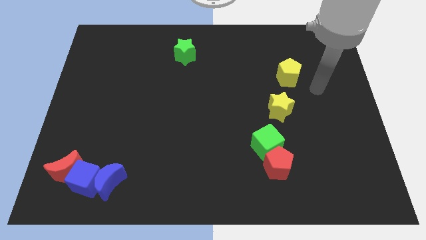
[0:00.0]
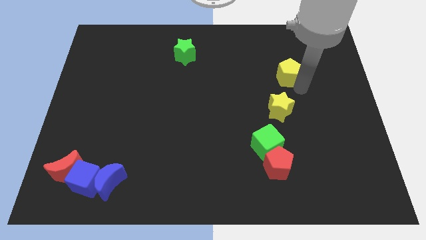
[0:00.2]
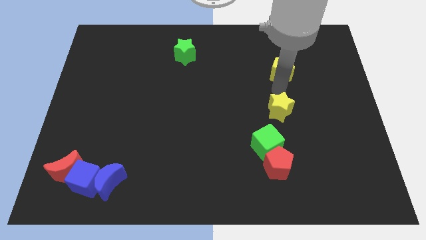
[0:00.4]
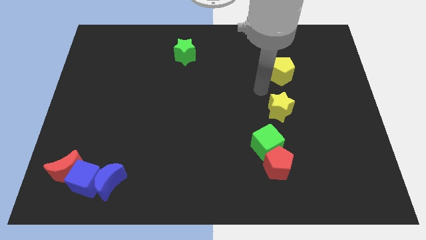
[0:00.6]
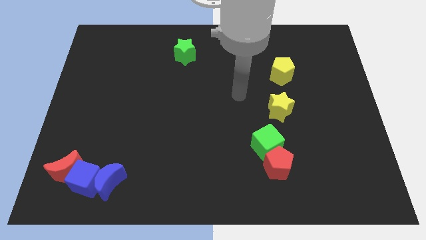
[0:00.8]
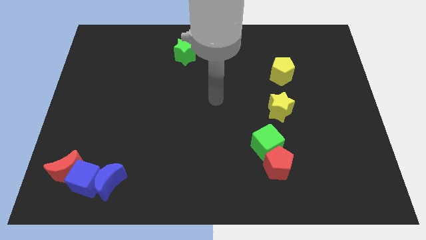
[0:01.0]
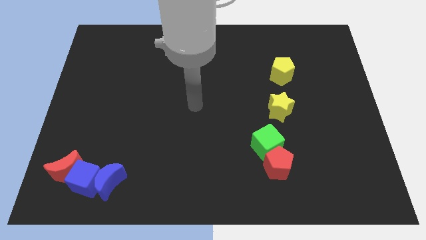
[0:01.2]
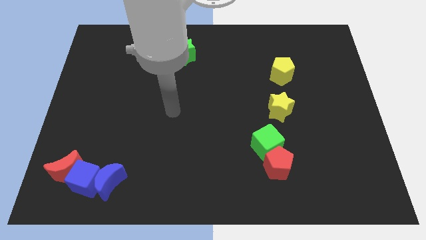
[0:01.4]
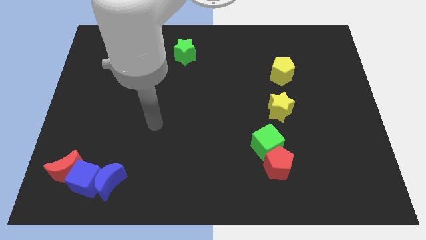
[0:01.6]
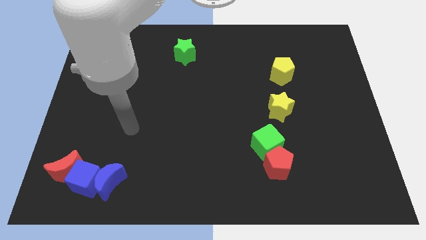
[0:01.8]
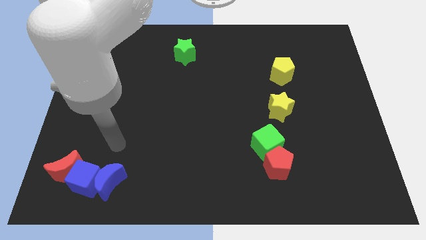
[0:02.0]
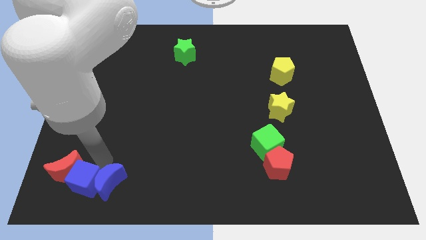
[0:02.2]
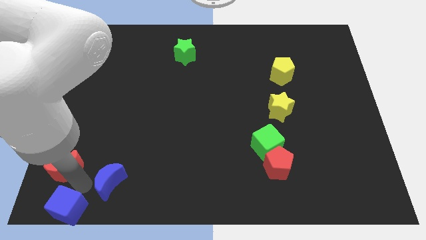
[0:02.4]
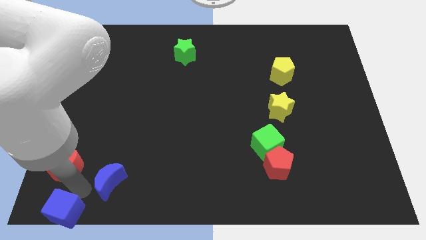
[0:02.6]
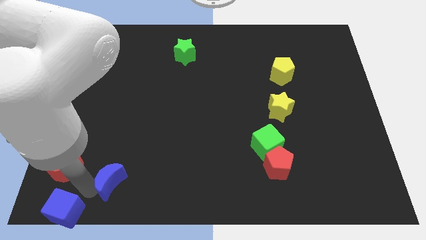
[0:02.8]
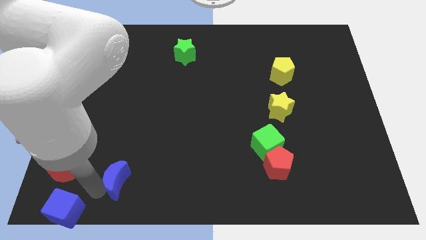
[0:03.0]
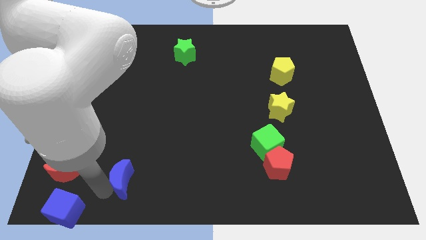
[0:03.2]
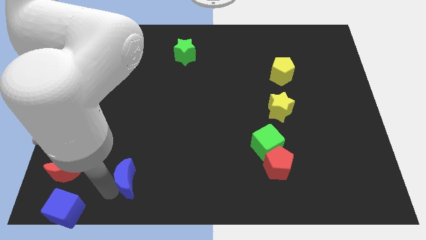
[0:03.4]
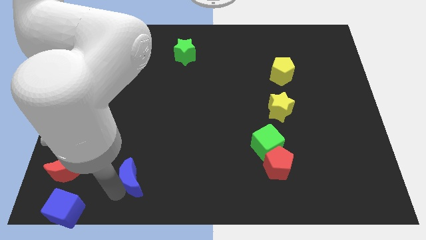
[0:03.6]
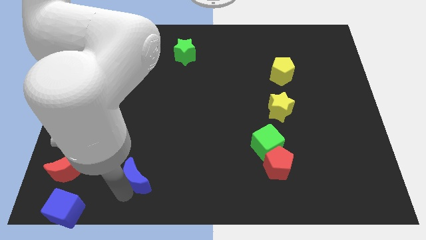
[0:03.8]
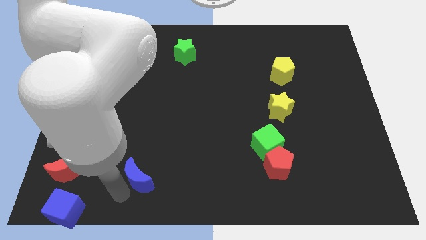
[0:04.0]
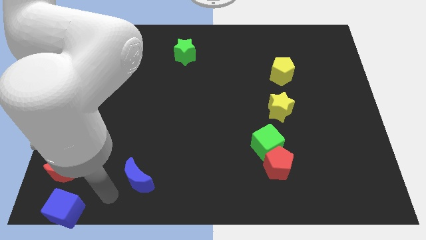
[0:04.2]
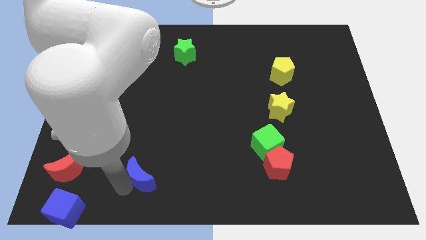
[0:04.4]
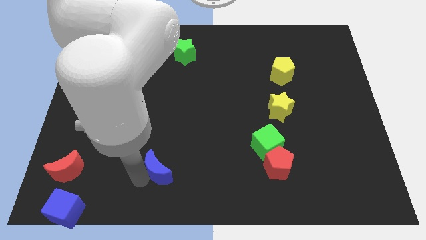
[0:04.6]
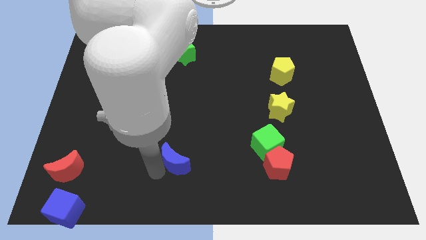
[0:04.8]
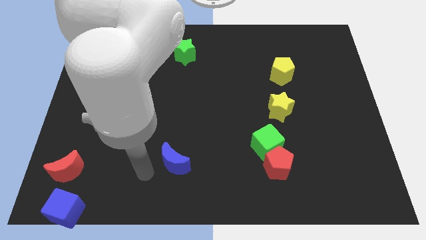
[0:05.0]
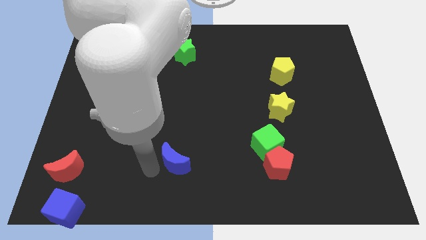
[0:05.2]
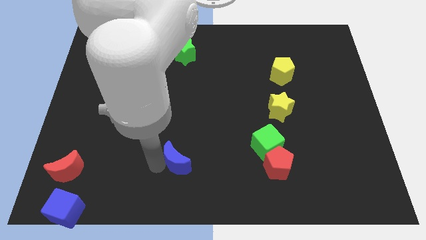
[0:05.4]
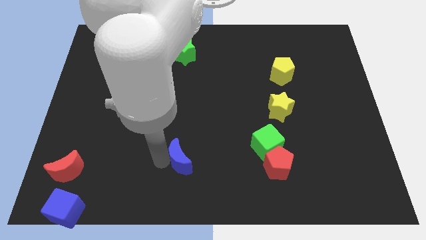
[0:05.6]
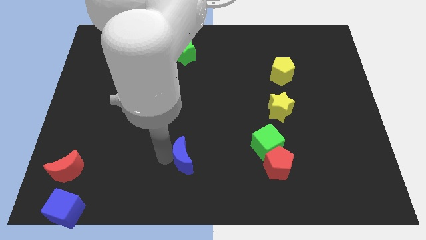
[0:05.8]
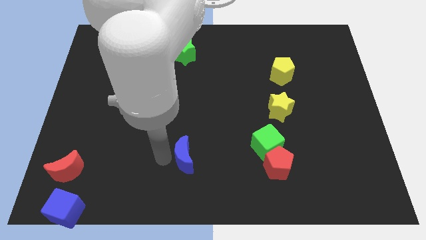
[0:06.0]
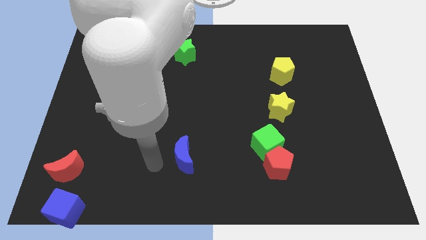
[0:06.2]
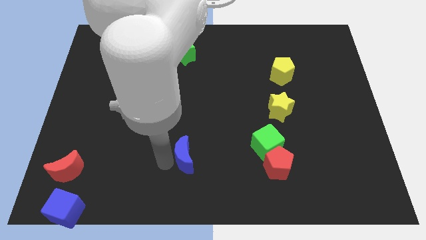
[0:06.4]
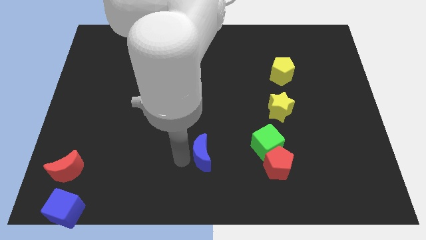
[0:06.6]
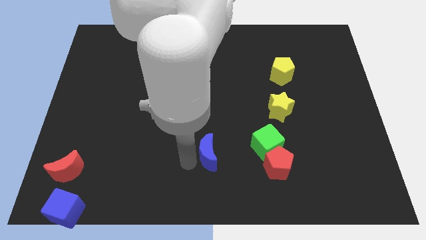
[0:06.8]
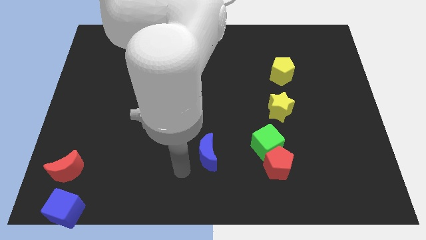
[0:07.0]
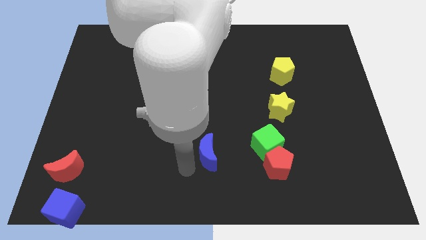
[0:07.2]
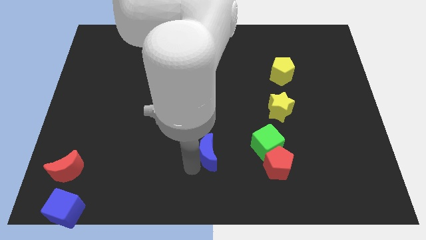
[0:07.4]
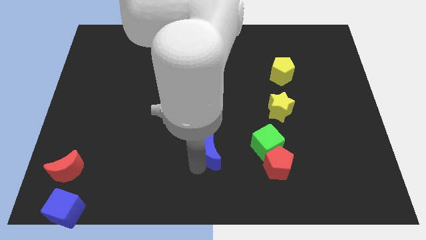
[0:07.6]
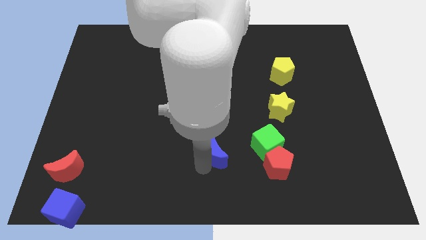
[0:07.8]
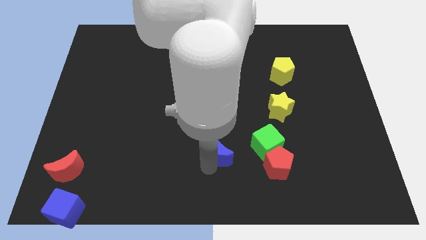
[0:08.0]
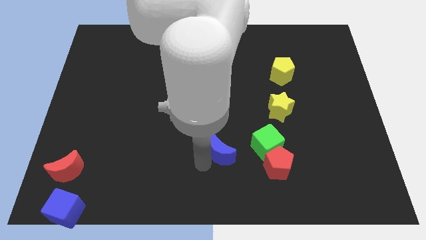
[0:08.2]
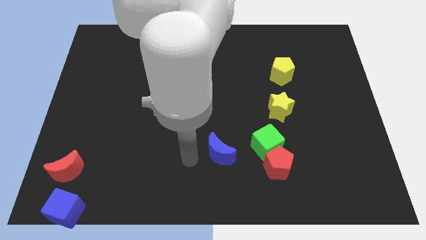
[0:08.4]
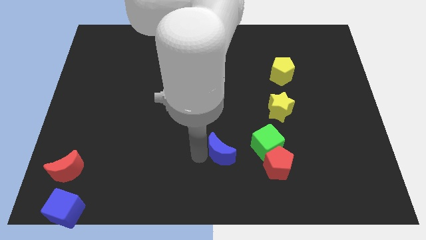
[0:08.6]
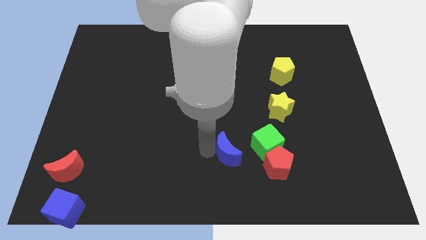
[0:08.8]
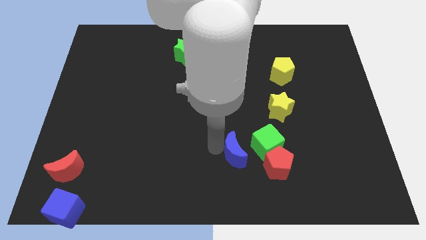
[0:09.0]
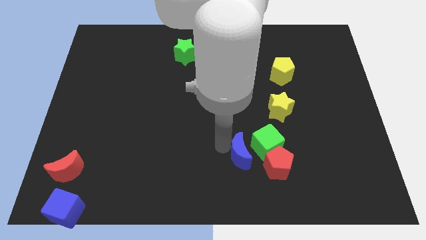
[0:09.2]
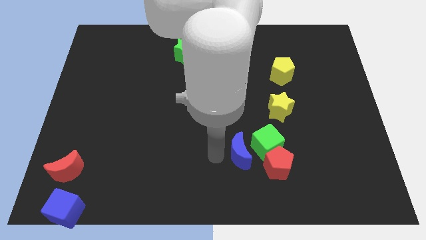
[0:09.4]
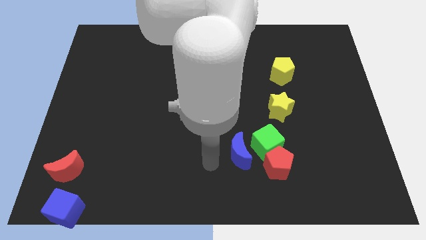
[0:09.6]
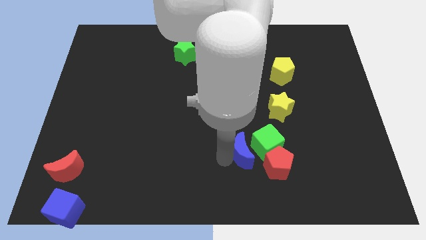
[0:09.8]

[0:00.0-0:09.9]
slide the blue moon to the green cube

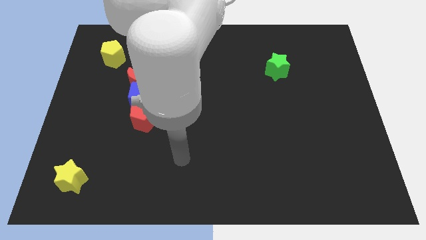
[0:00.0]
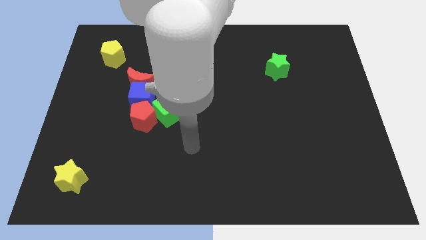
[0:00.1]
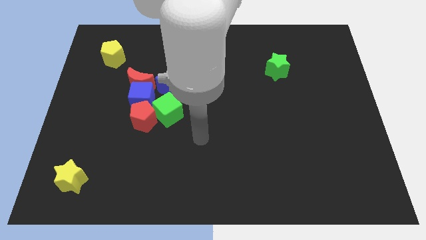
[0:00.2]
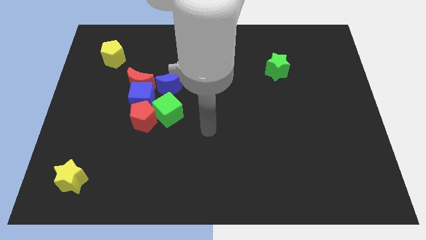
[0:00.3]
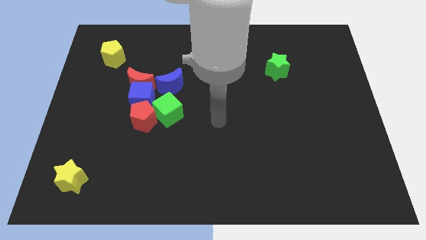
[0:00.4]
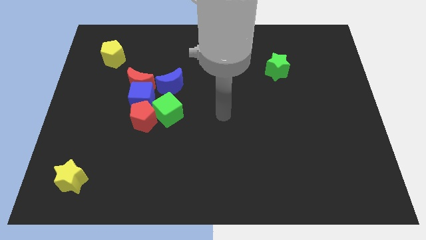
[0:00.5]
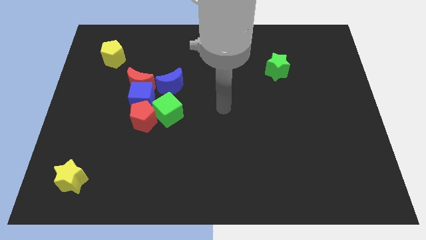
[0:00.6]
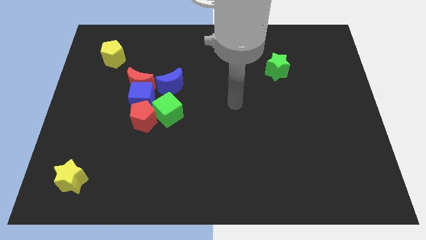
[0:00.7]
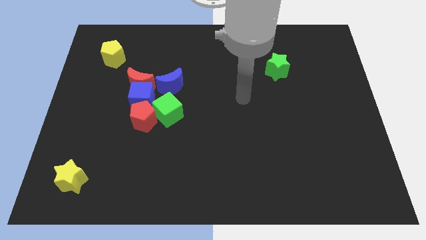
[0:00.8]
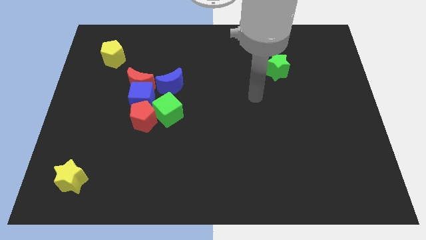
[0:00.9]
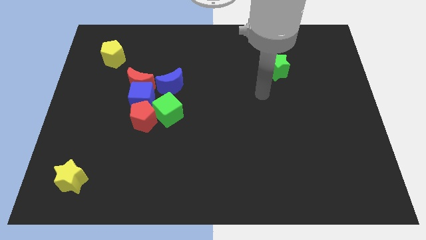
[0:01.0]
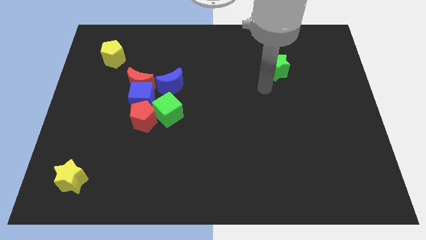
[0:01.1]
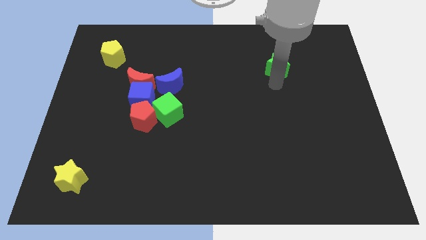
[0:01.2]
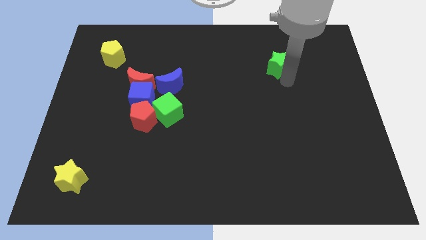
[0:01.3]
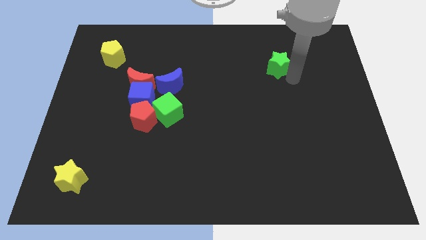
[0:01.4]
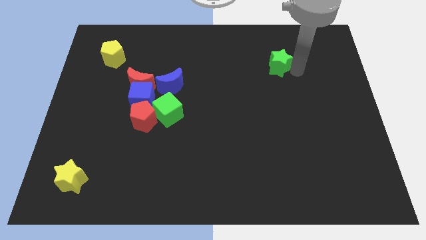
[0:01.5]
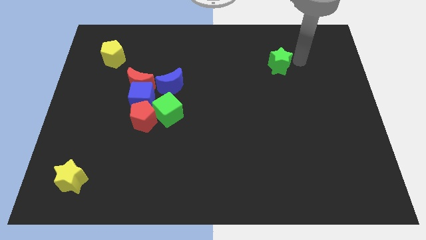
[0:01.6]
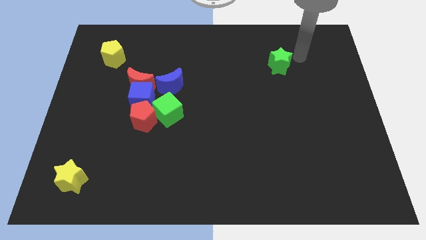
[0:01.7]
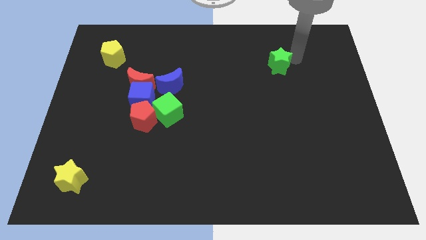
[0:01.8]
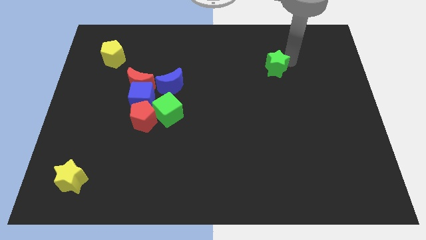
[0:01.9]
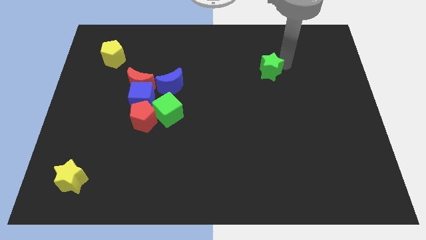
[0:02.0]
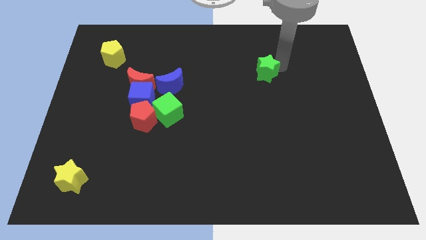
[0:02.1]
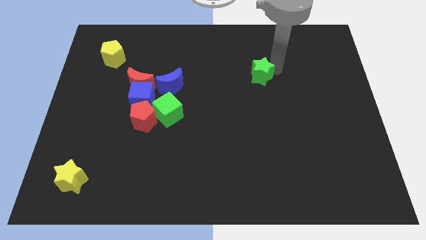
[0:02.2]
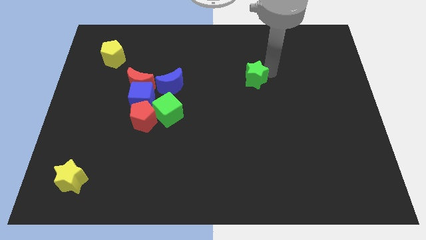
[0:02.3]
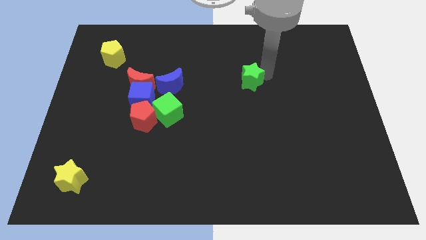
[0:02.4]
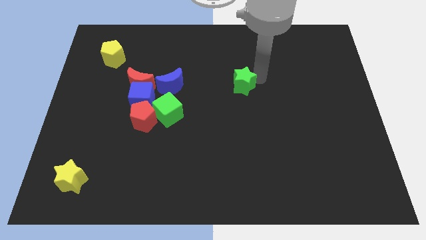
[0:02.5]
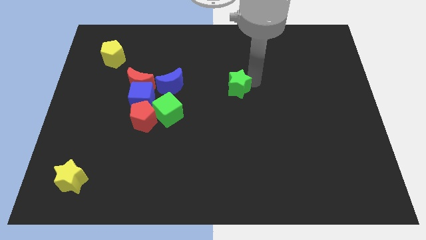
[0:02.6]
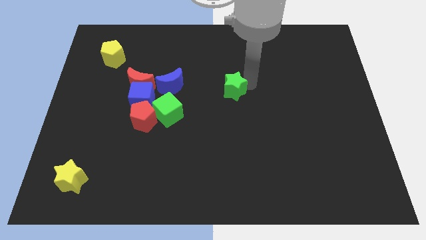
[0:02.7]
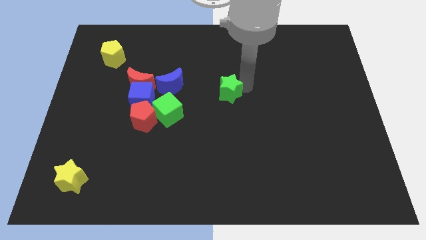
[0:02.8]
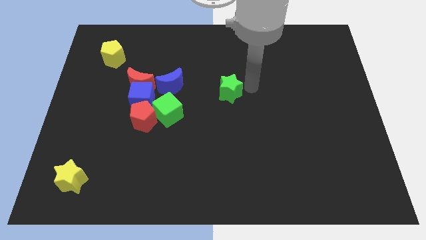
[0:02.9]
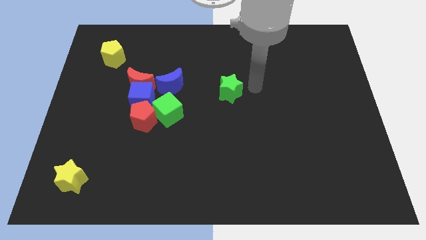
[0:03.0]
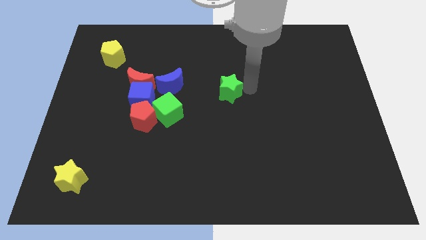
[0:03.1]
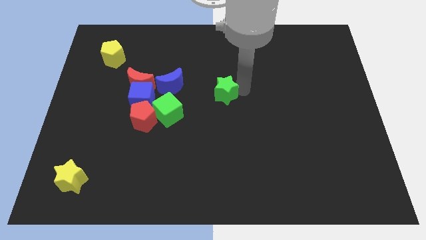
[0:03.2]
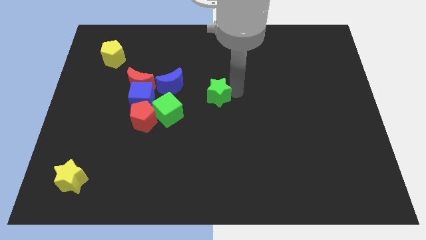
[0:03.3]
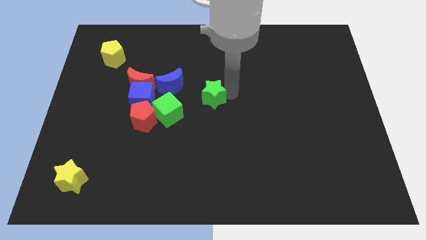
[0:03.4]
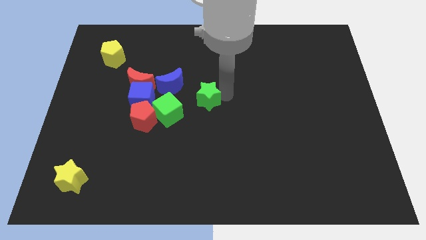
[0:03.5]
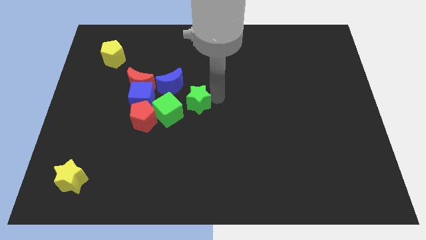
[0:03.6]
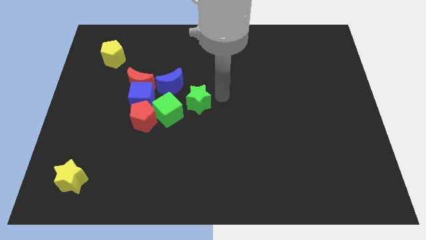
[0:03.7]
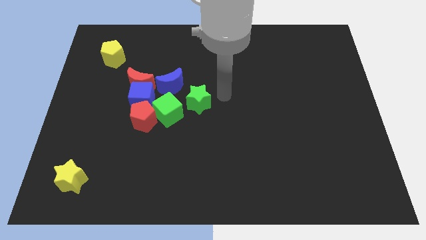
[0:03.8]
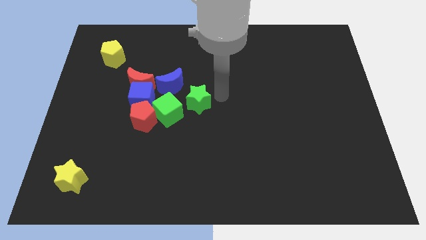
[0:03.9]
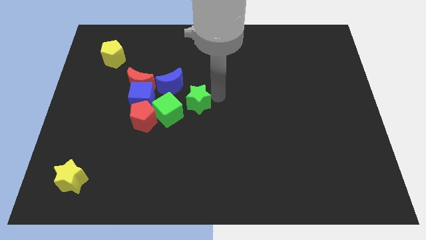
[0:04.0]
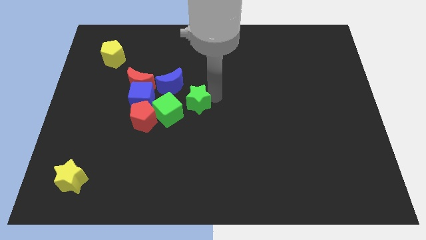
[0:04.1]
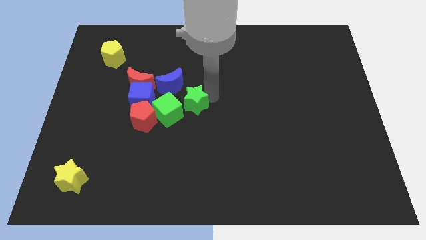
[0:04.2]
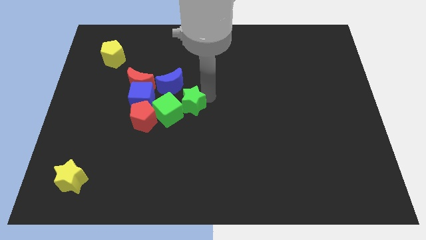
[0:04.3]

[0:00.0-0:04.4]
slide the green star to the green cube
